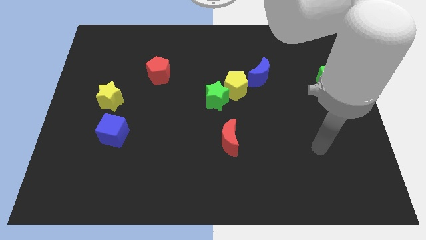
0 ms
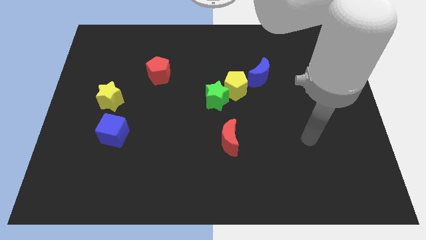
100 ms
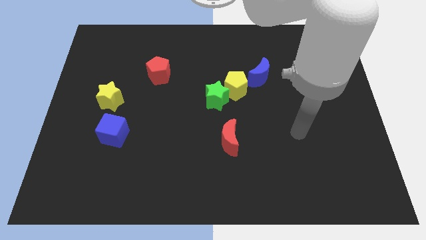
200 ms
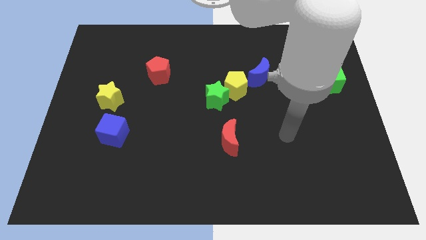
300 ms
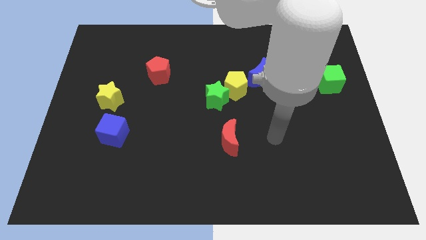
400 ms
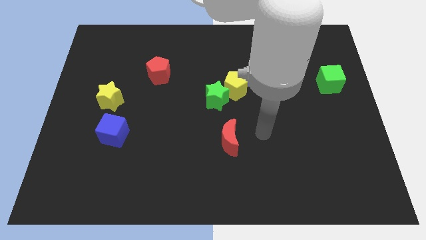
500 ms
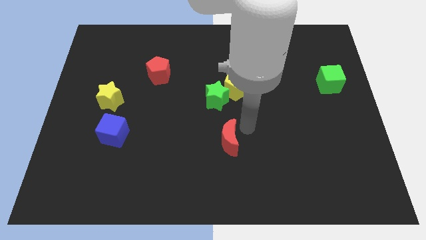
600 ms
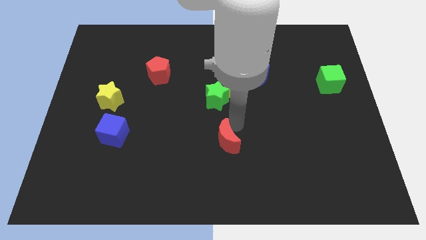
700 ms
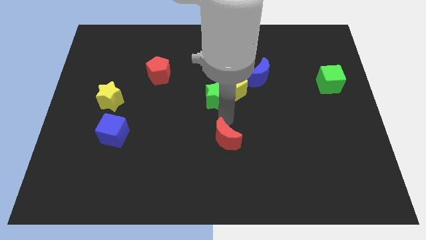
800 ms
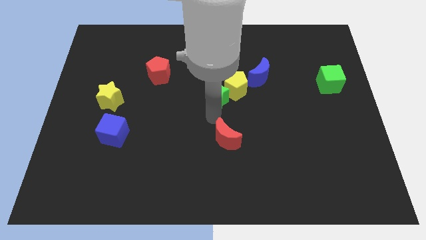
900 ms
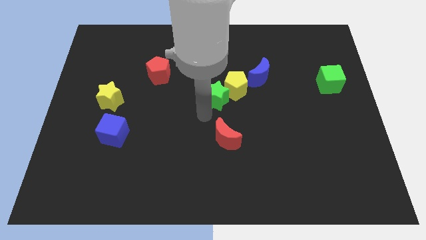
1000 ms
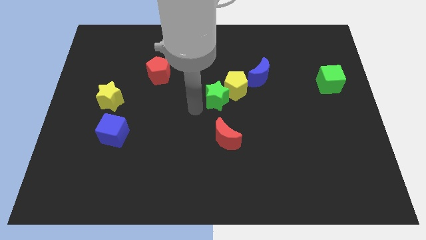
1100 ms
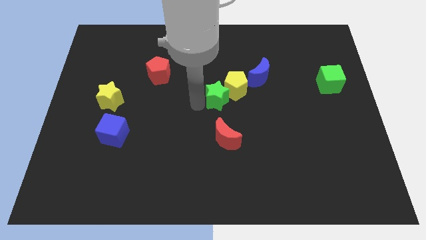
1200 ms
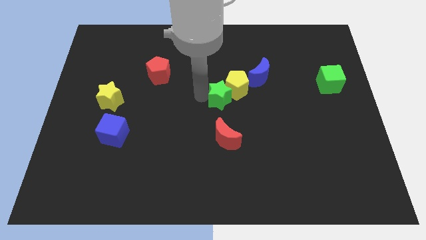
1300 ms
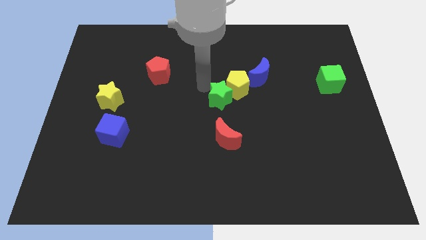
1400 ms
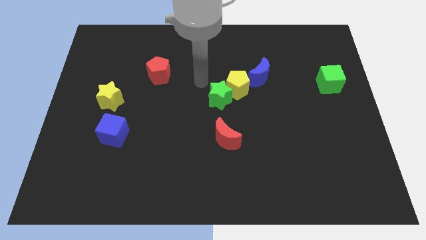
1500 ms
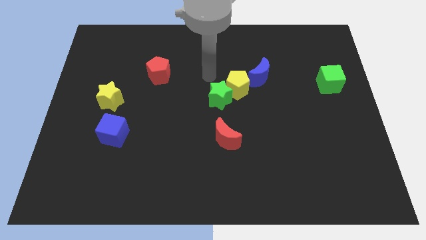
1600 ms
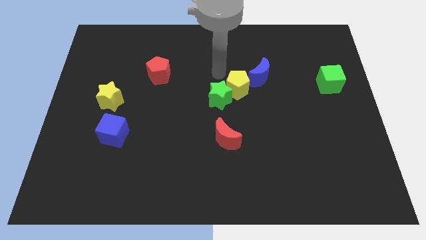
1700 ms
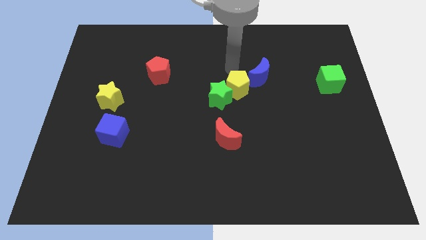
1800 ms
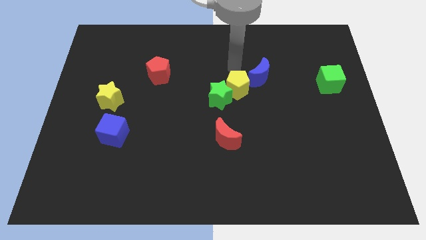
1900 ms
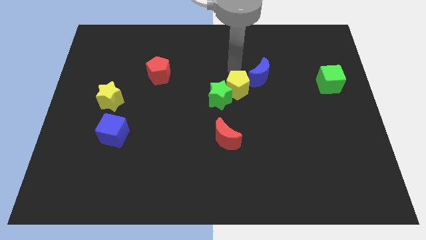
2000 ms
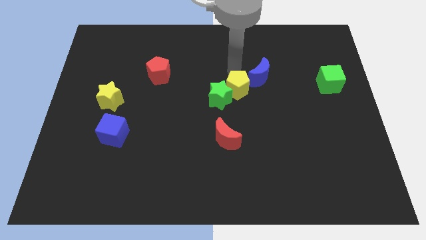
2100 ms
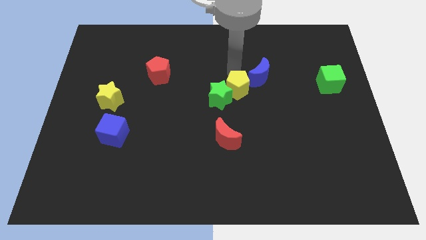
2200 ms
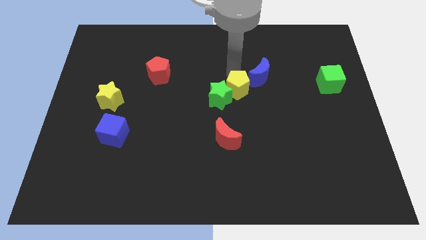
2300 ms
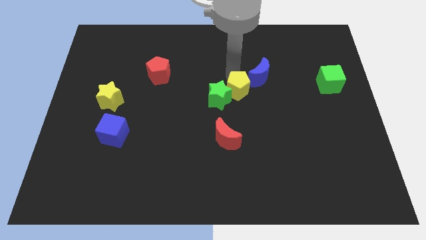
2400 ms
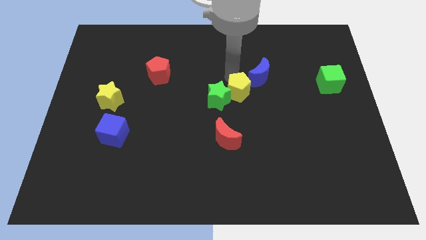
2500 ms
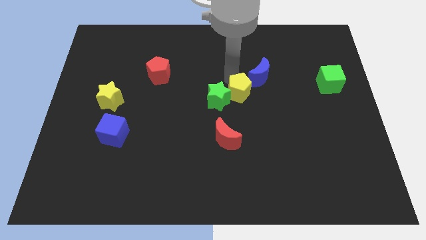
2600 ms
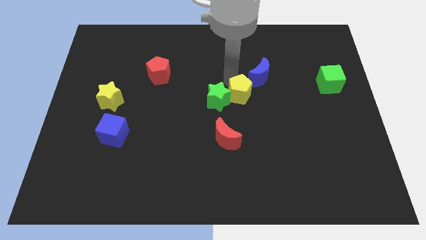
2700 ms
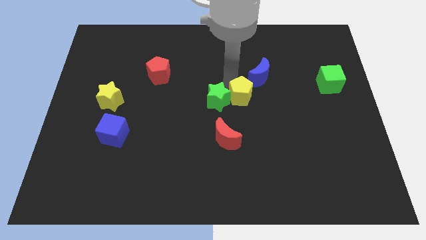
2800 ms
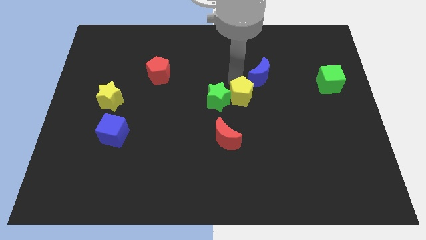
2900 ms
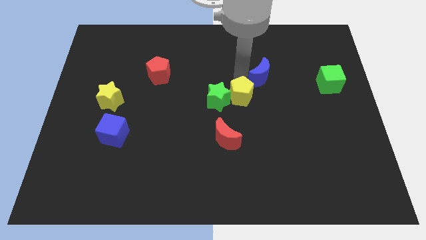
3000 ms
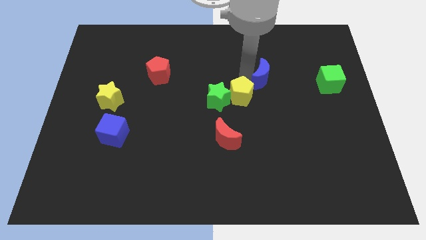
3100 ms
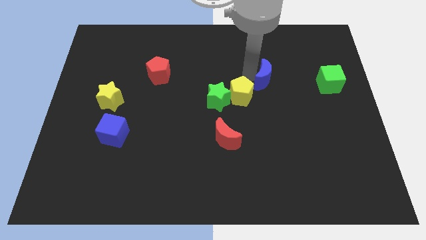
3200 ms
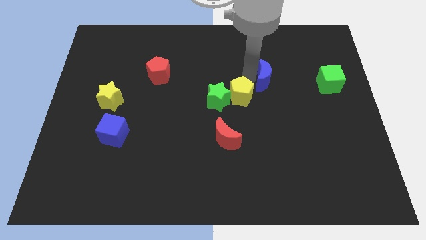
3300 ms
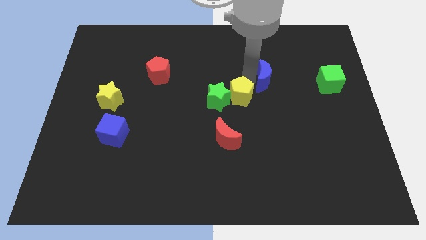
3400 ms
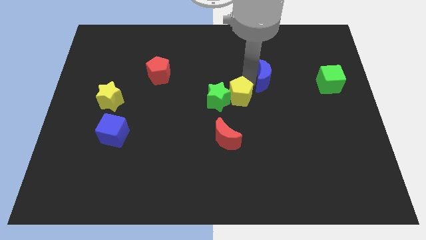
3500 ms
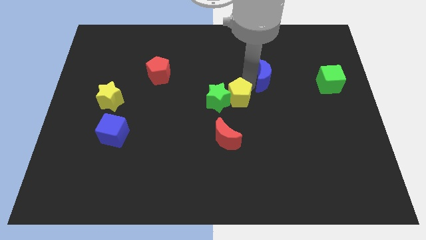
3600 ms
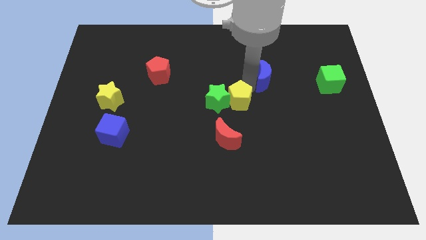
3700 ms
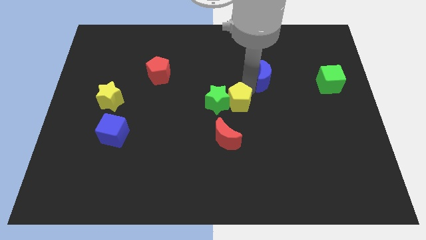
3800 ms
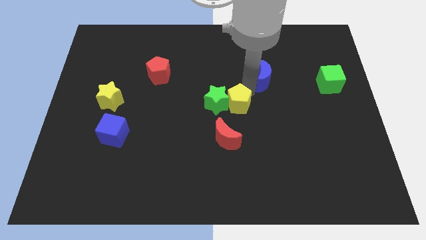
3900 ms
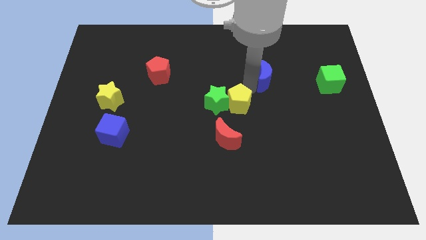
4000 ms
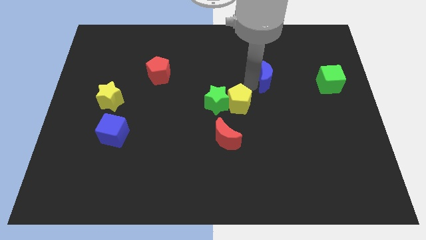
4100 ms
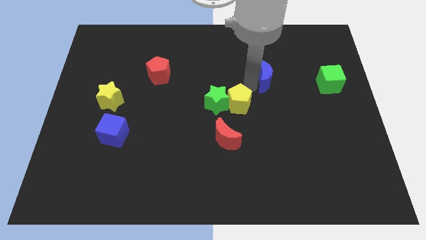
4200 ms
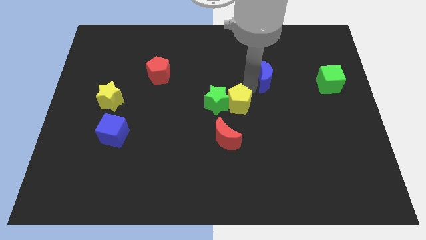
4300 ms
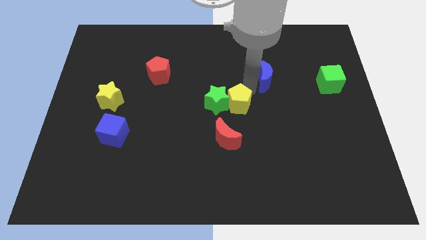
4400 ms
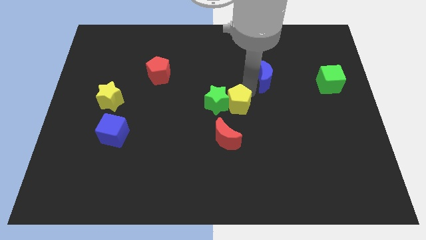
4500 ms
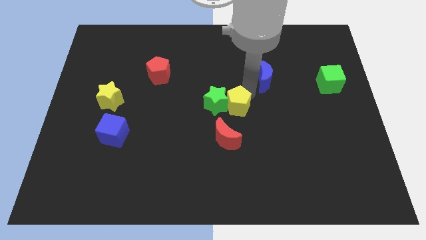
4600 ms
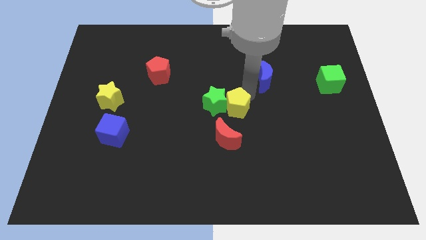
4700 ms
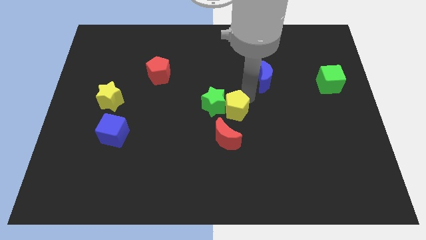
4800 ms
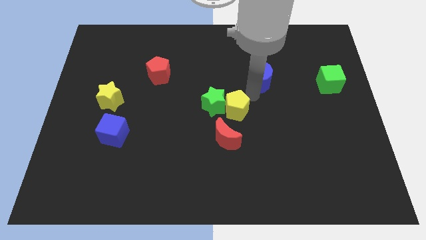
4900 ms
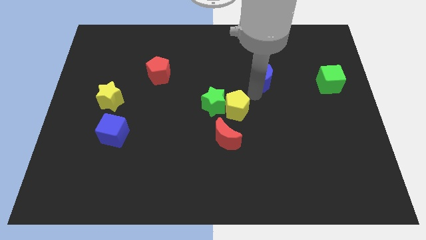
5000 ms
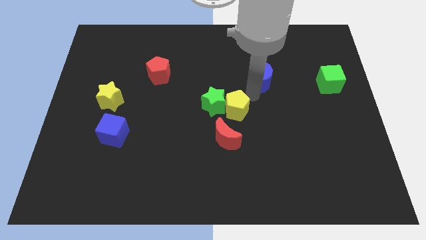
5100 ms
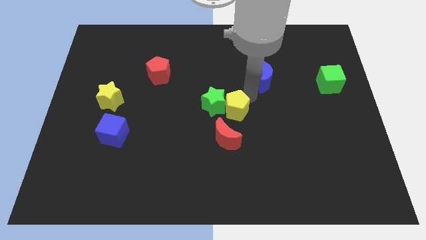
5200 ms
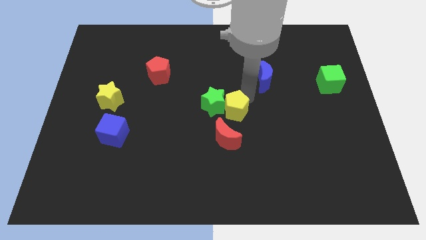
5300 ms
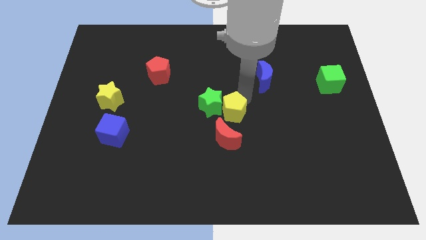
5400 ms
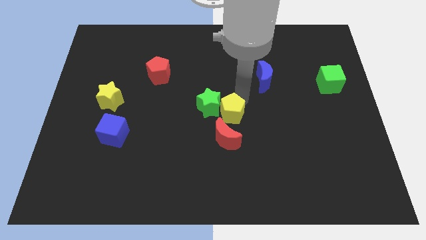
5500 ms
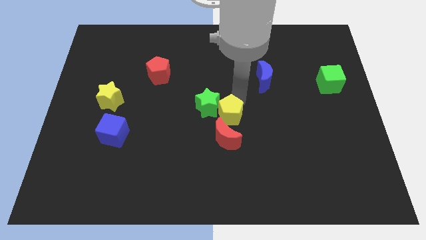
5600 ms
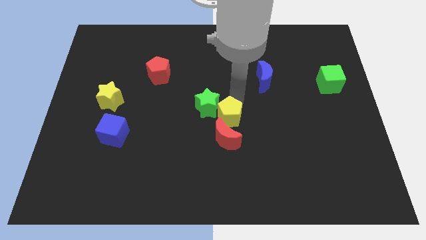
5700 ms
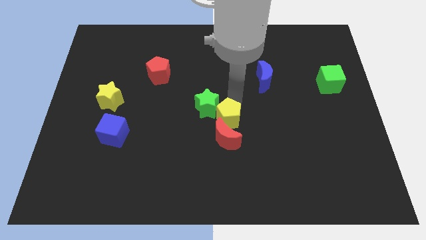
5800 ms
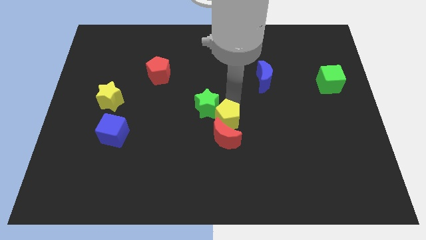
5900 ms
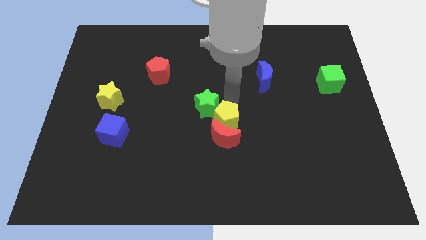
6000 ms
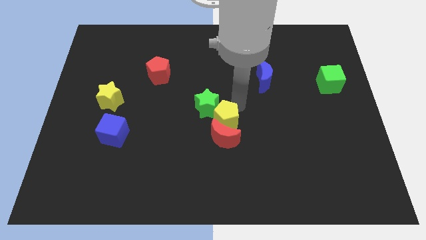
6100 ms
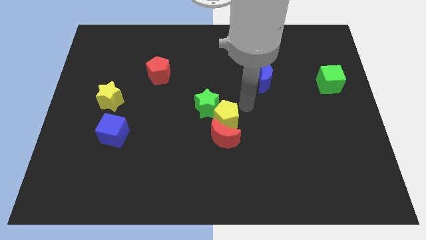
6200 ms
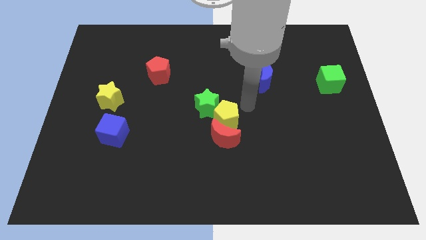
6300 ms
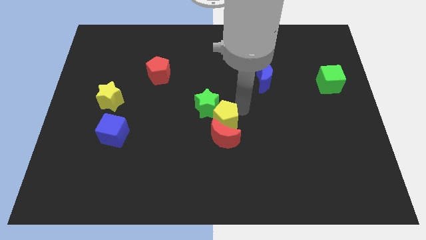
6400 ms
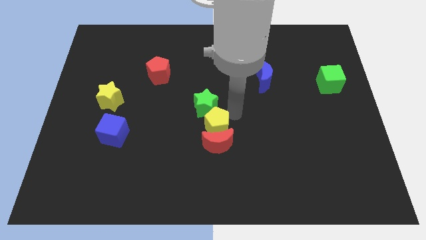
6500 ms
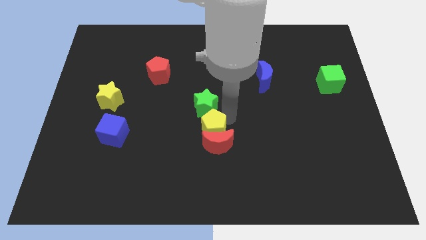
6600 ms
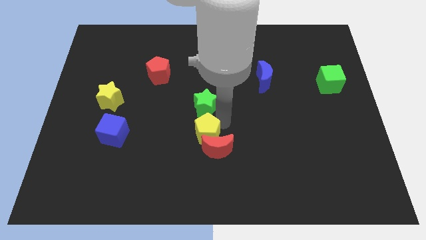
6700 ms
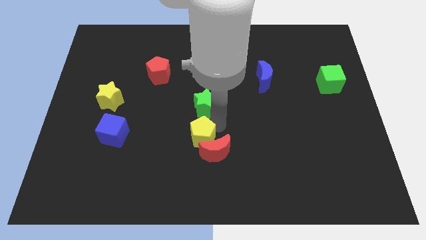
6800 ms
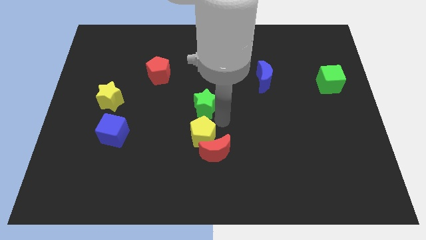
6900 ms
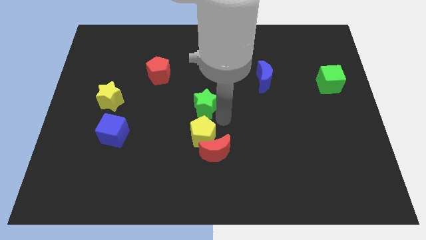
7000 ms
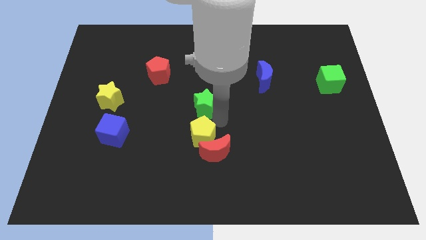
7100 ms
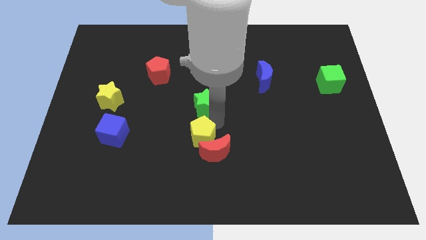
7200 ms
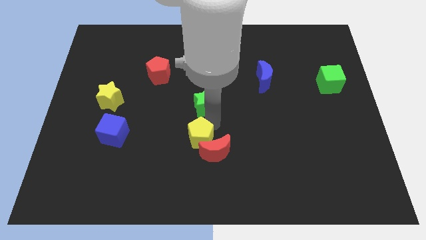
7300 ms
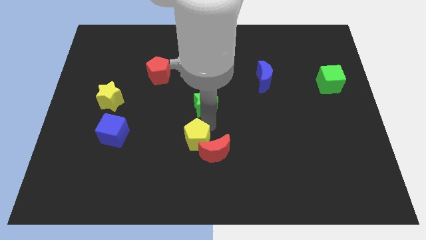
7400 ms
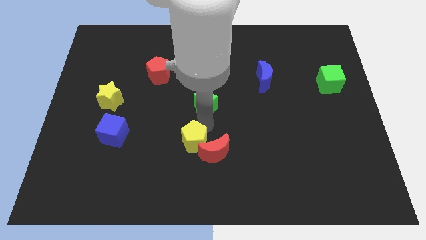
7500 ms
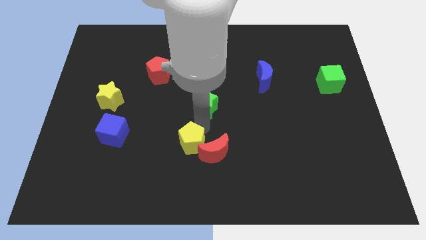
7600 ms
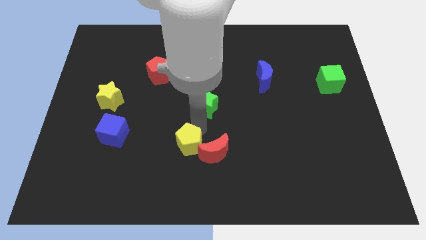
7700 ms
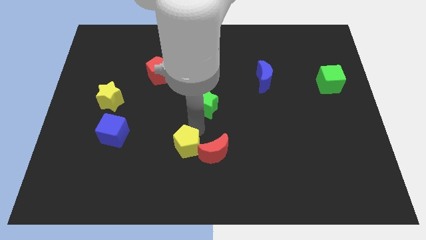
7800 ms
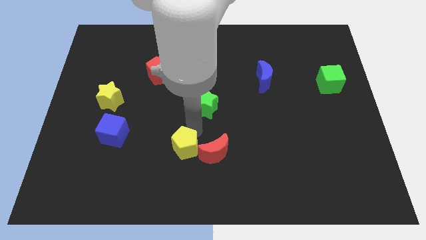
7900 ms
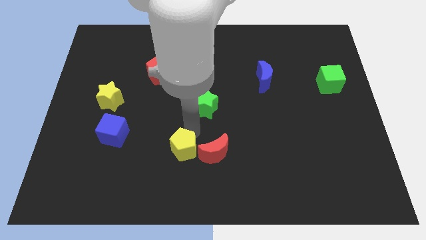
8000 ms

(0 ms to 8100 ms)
slide the yellow pentagon diagonally down and left
